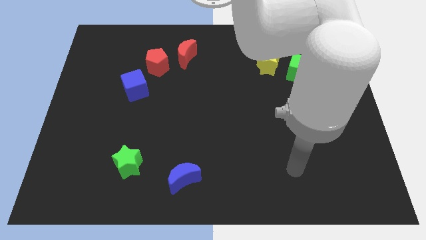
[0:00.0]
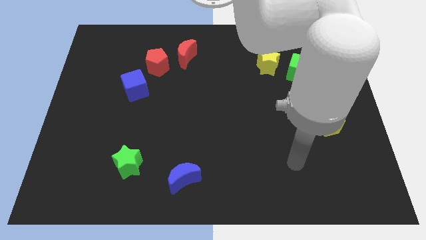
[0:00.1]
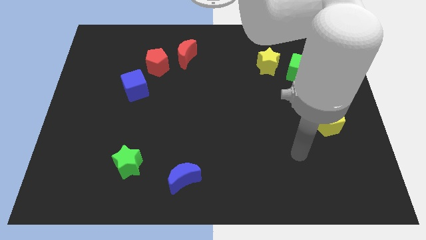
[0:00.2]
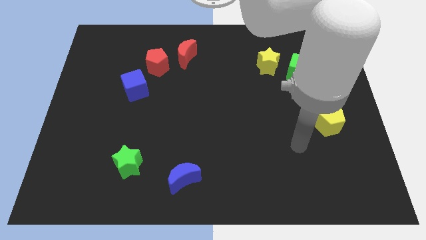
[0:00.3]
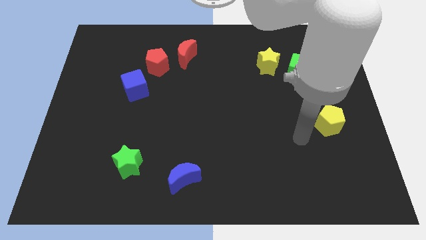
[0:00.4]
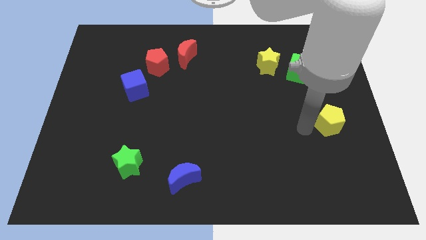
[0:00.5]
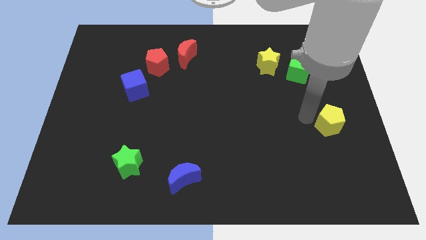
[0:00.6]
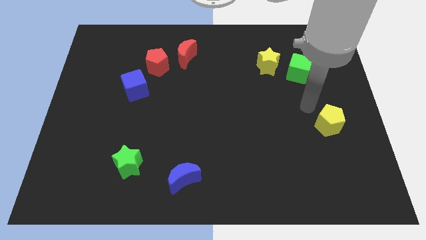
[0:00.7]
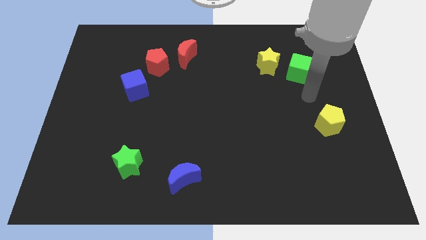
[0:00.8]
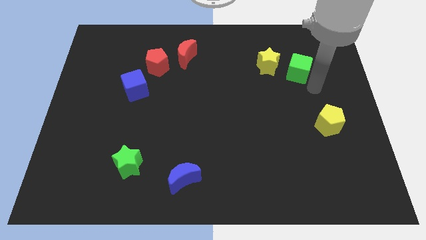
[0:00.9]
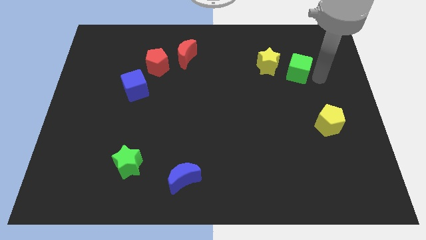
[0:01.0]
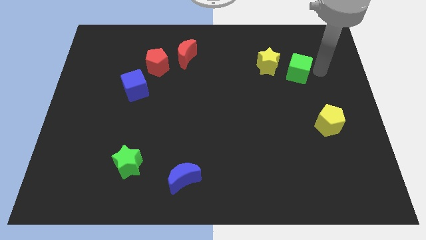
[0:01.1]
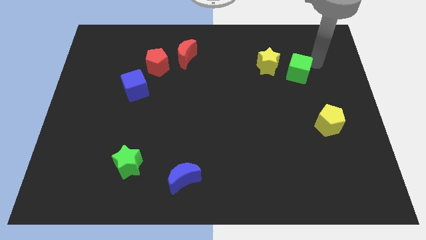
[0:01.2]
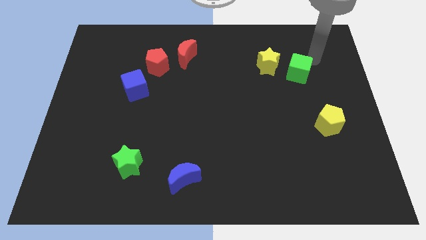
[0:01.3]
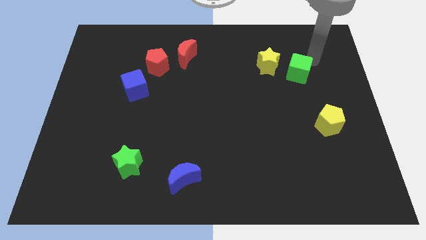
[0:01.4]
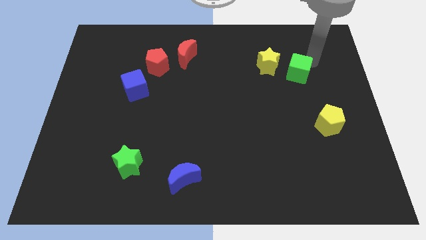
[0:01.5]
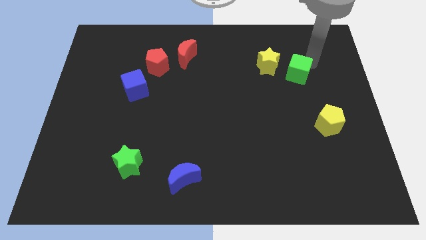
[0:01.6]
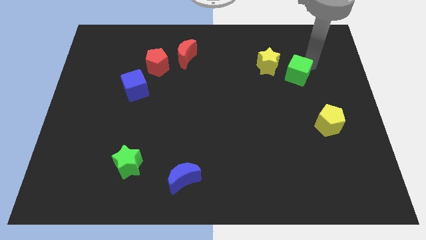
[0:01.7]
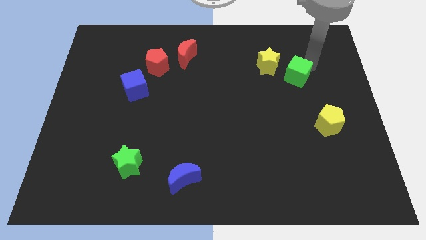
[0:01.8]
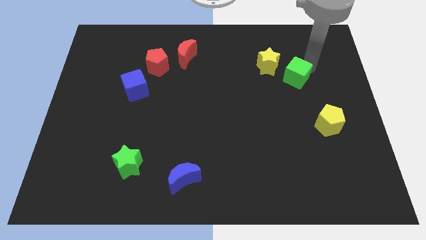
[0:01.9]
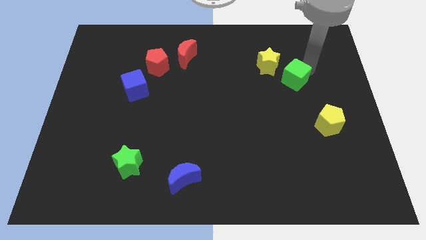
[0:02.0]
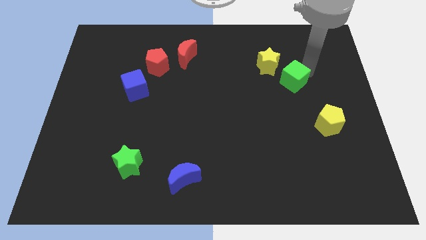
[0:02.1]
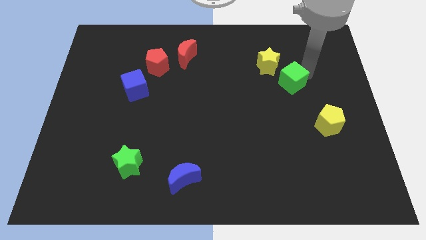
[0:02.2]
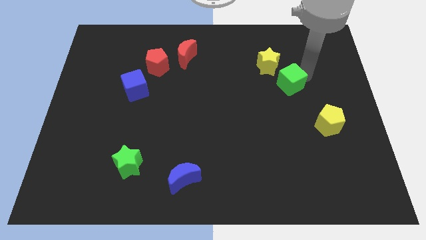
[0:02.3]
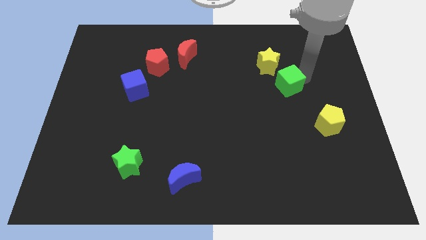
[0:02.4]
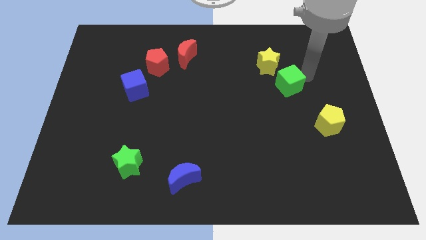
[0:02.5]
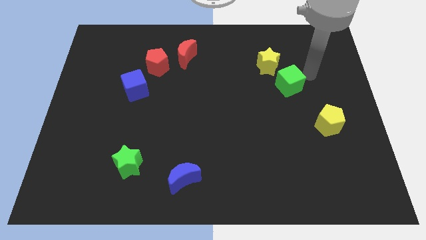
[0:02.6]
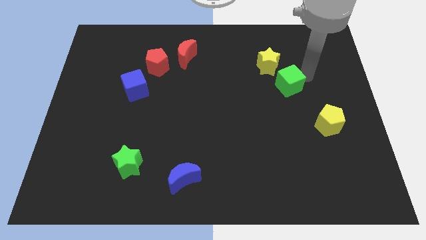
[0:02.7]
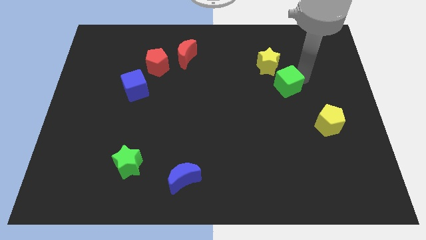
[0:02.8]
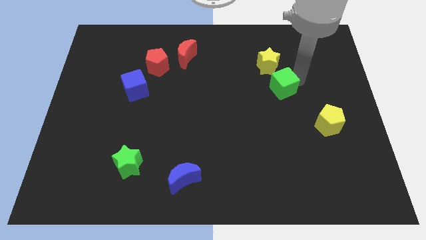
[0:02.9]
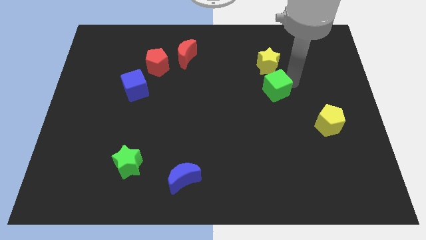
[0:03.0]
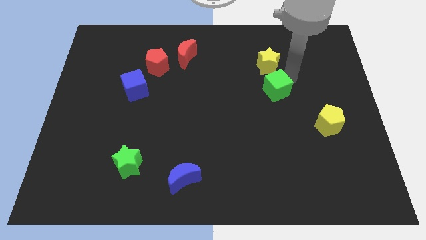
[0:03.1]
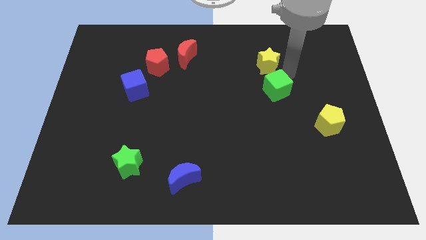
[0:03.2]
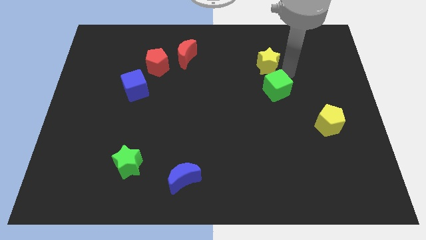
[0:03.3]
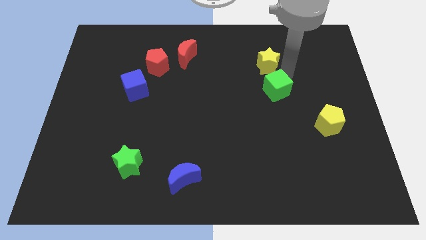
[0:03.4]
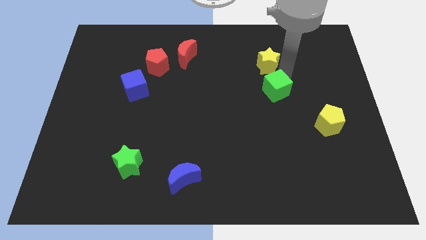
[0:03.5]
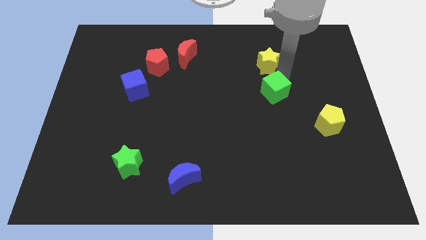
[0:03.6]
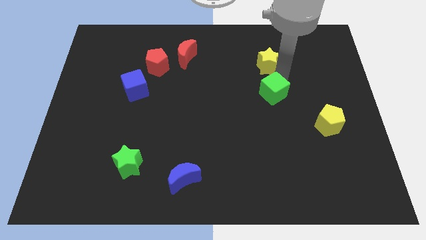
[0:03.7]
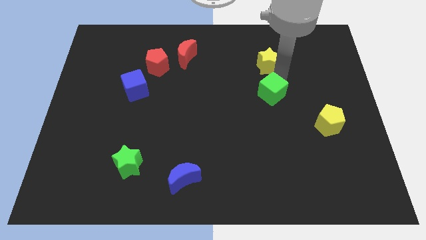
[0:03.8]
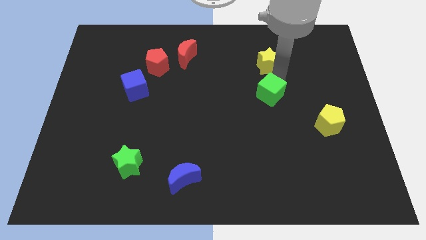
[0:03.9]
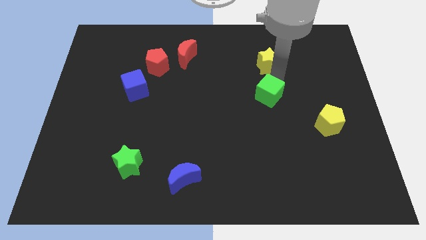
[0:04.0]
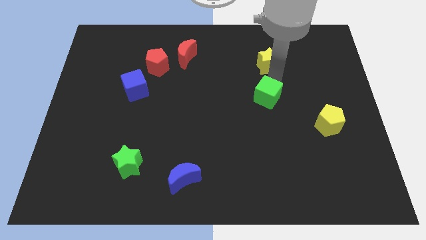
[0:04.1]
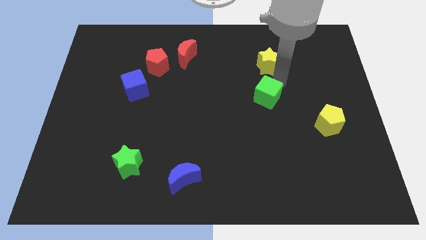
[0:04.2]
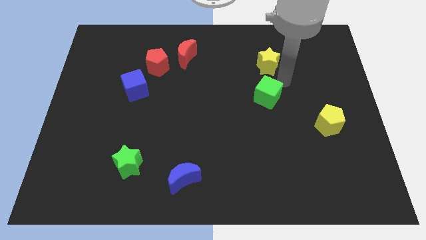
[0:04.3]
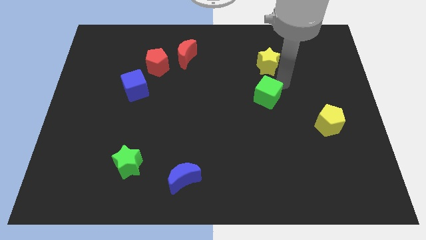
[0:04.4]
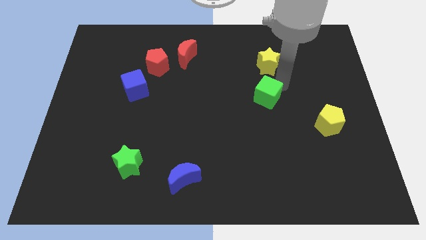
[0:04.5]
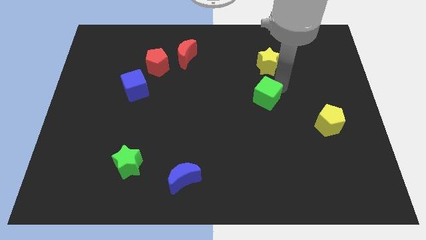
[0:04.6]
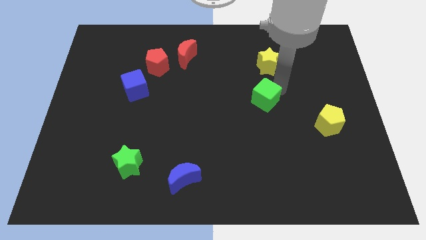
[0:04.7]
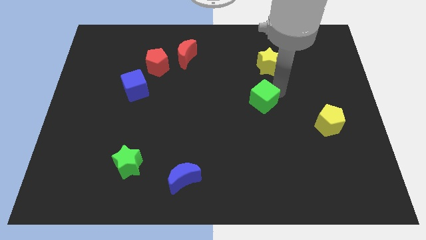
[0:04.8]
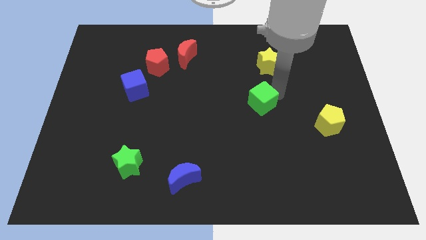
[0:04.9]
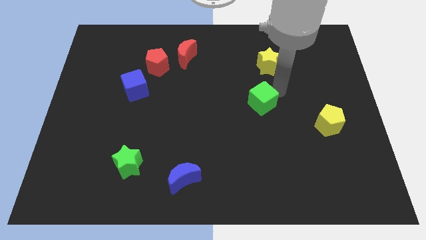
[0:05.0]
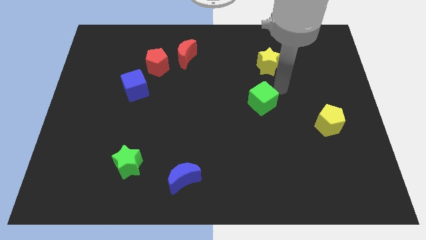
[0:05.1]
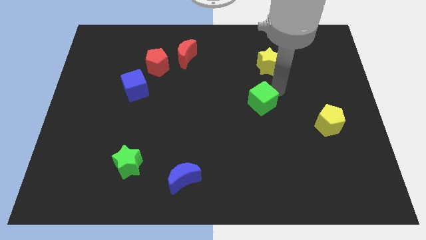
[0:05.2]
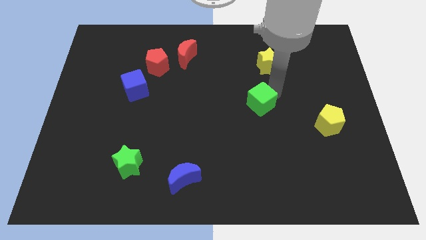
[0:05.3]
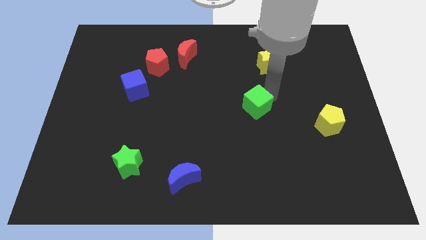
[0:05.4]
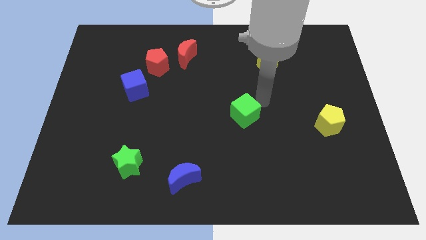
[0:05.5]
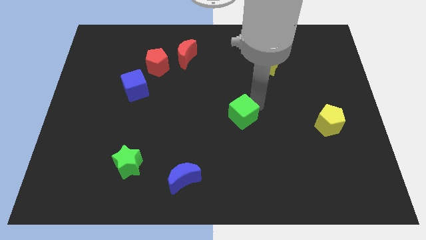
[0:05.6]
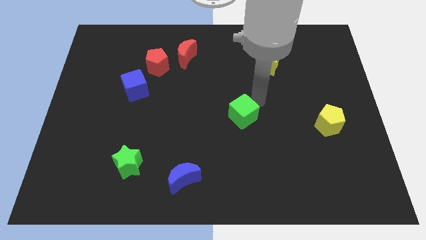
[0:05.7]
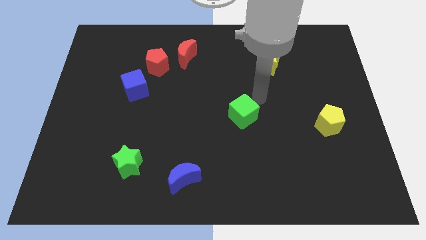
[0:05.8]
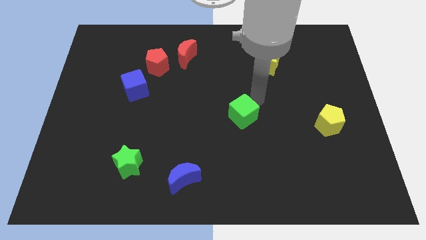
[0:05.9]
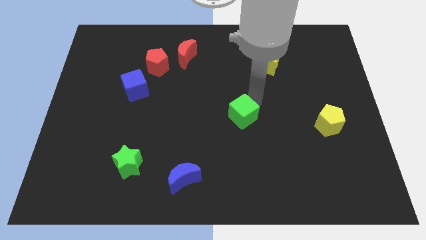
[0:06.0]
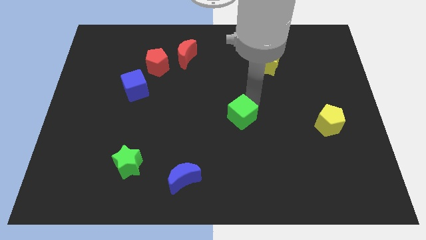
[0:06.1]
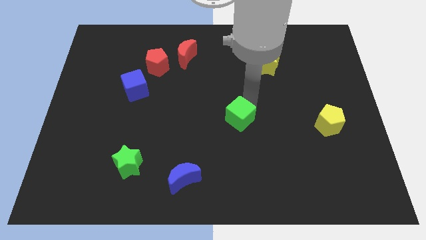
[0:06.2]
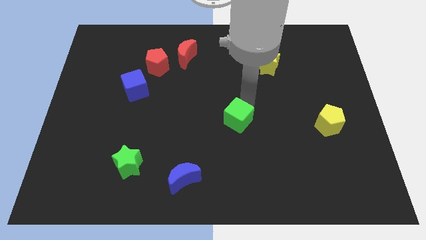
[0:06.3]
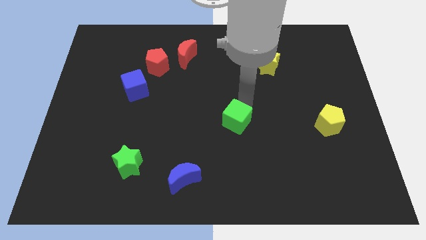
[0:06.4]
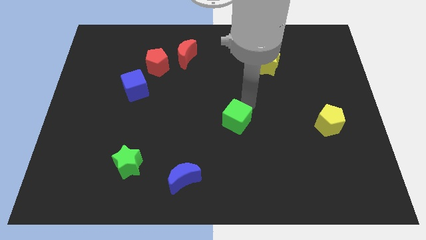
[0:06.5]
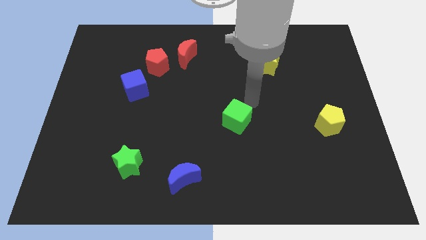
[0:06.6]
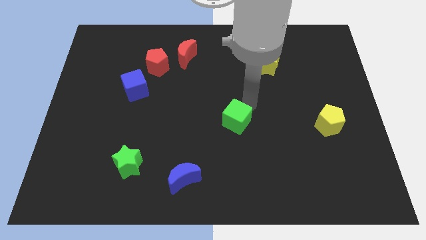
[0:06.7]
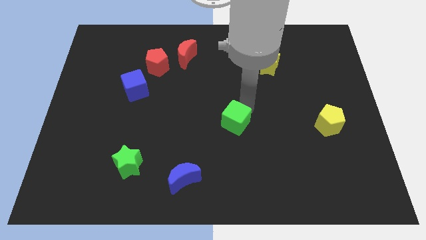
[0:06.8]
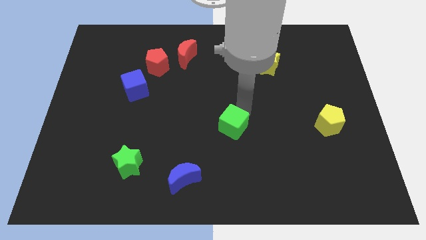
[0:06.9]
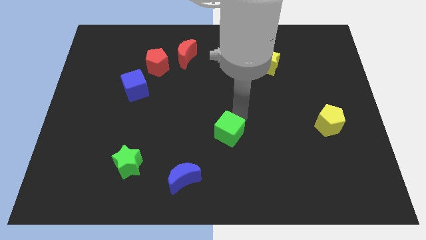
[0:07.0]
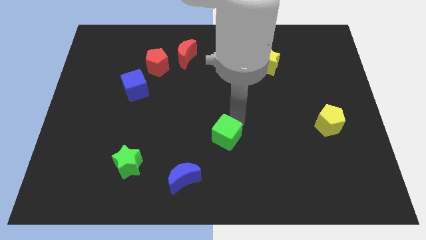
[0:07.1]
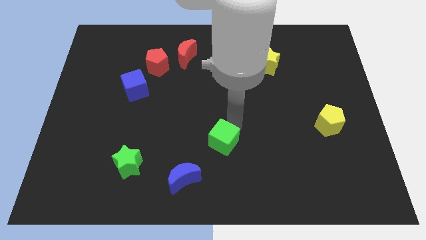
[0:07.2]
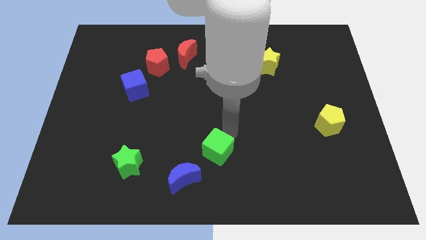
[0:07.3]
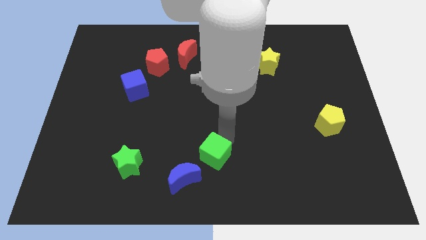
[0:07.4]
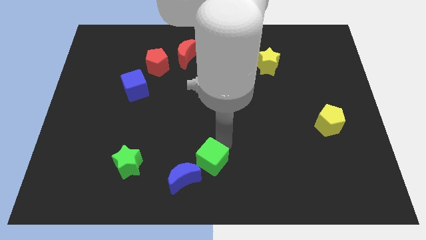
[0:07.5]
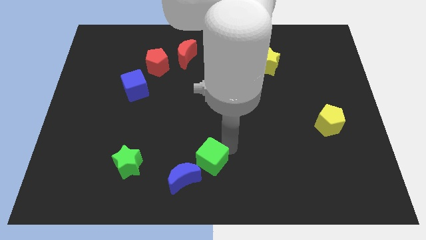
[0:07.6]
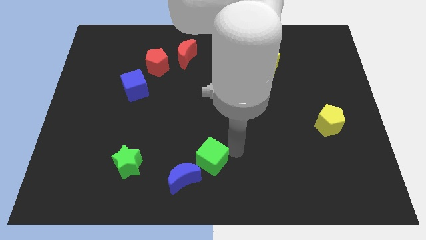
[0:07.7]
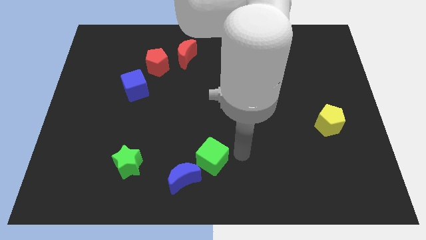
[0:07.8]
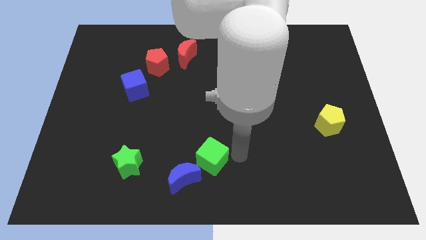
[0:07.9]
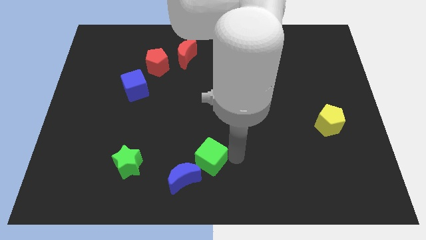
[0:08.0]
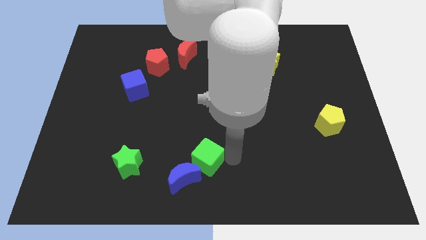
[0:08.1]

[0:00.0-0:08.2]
push the green cube to the right side of the green star
